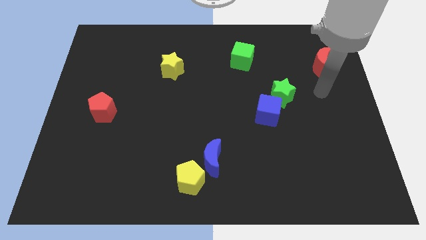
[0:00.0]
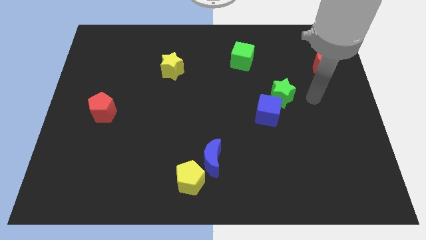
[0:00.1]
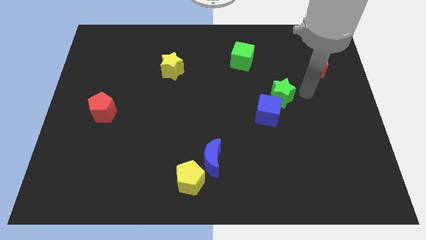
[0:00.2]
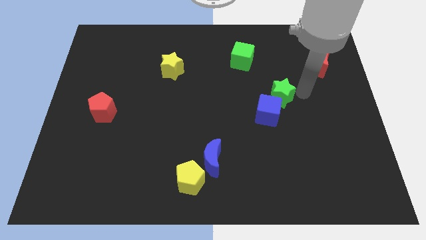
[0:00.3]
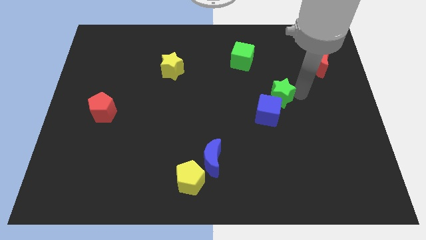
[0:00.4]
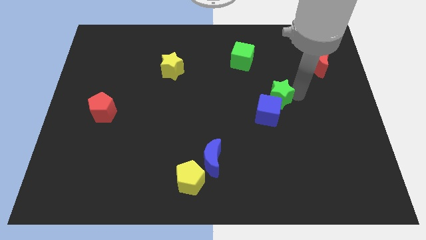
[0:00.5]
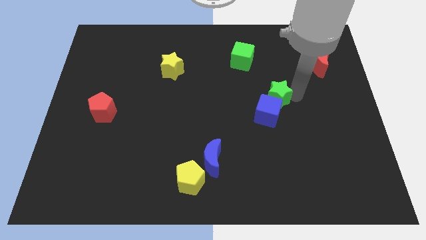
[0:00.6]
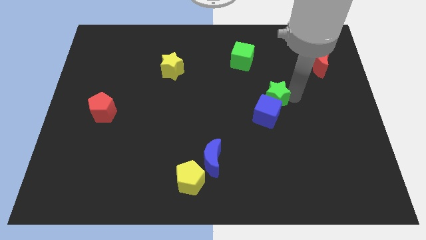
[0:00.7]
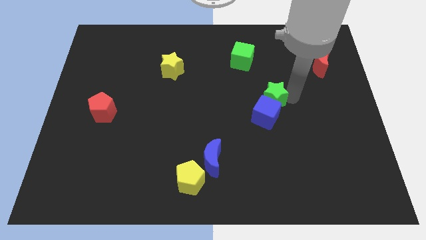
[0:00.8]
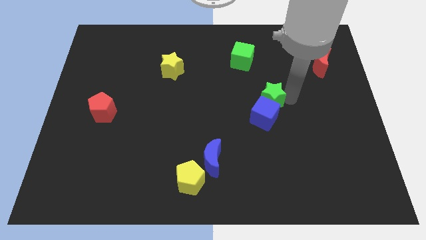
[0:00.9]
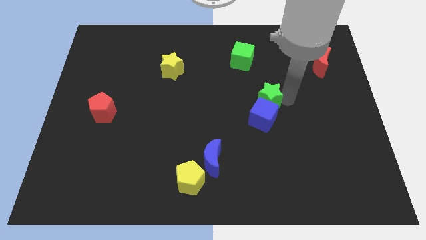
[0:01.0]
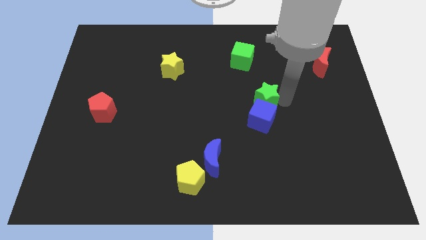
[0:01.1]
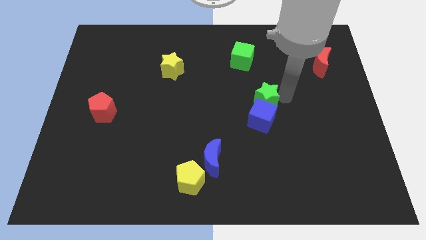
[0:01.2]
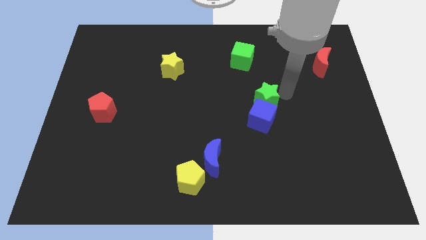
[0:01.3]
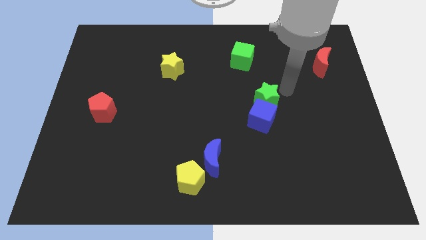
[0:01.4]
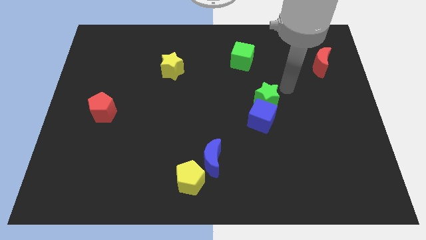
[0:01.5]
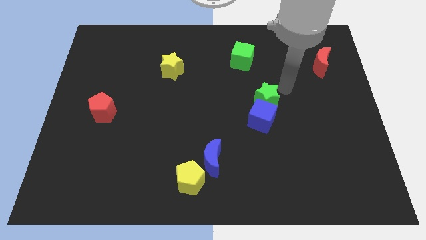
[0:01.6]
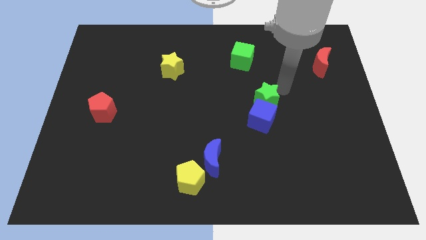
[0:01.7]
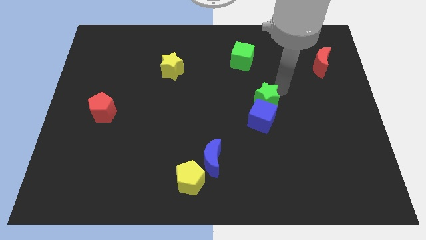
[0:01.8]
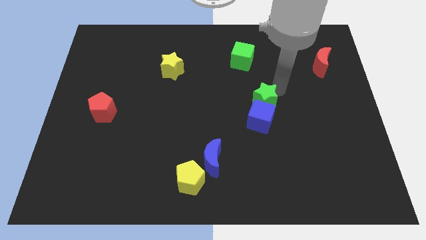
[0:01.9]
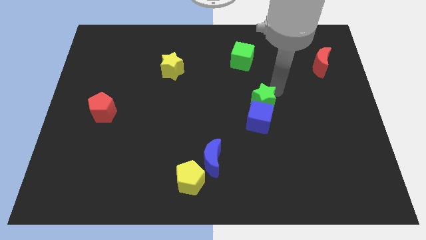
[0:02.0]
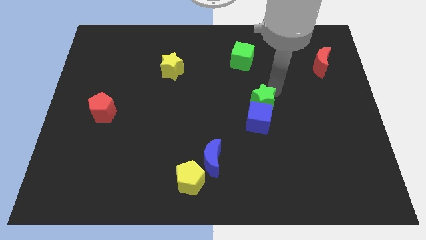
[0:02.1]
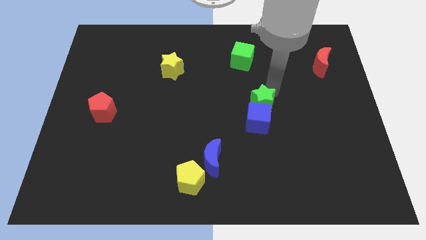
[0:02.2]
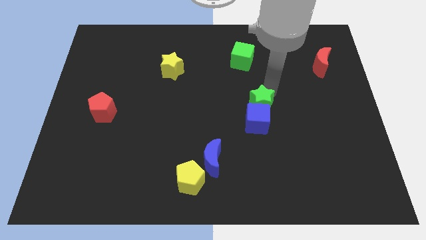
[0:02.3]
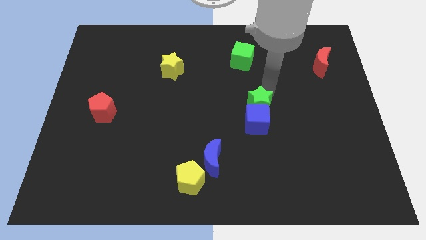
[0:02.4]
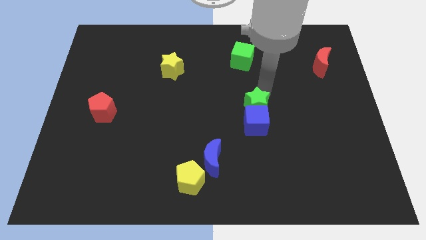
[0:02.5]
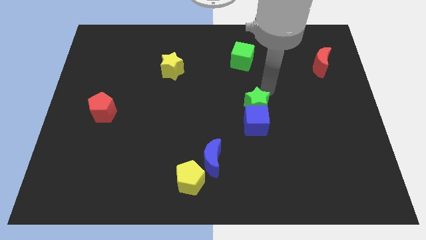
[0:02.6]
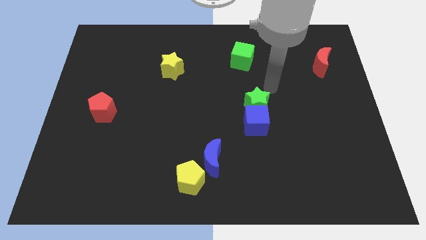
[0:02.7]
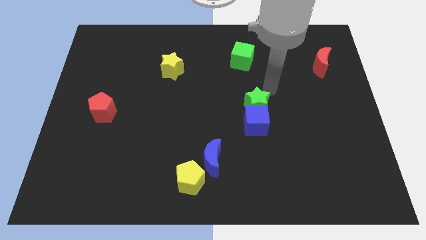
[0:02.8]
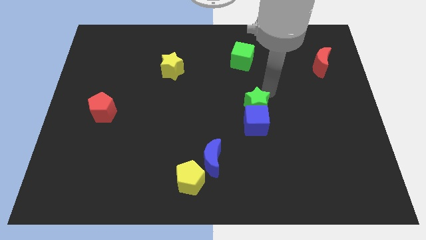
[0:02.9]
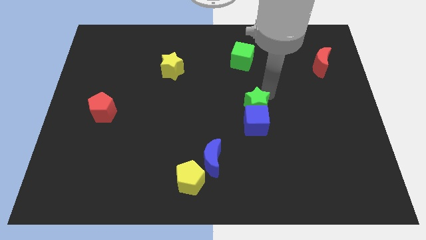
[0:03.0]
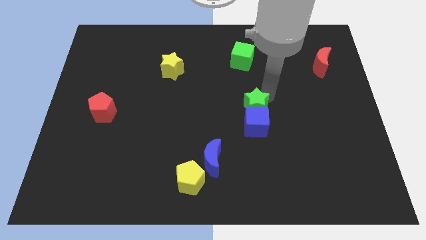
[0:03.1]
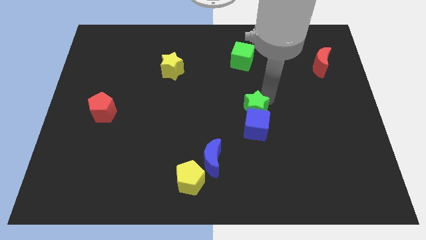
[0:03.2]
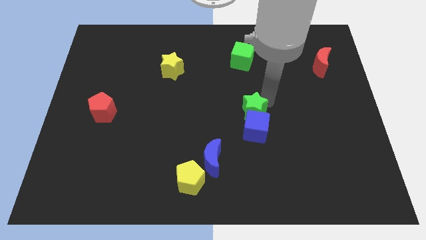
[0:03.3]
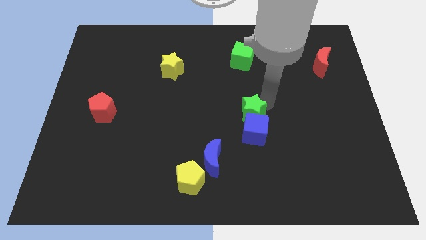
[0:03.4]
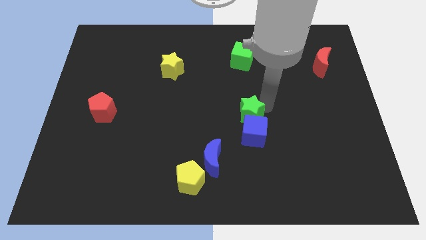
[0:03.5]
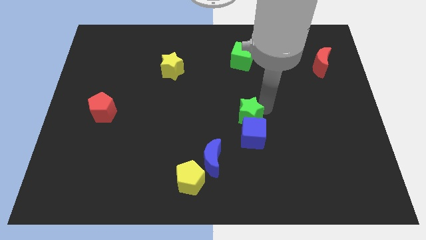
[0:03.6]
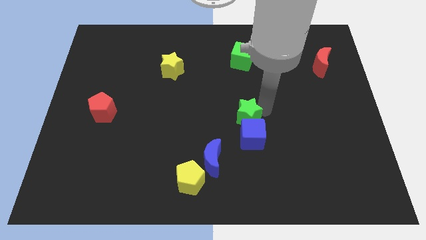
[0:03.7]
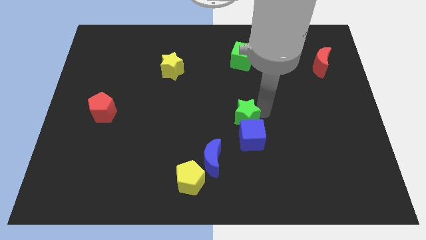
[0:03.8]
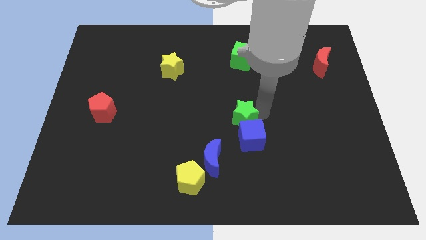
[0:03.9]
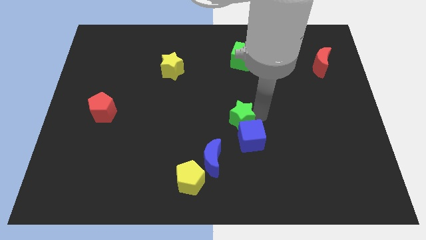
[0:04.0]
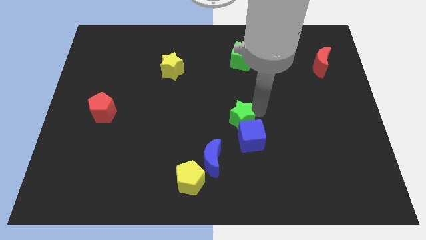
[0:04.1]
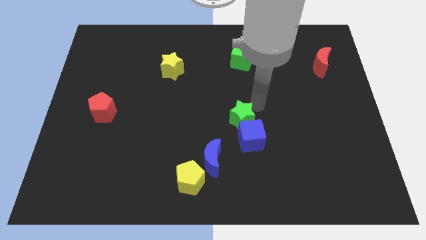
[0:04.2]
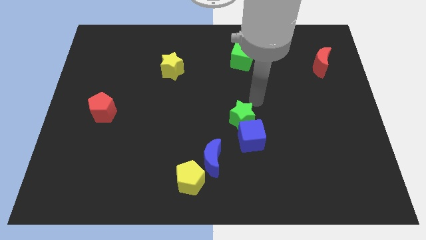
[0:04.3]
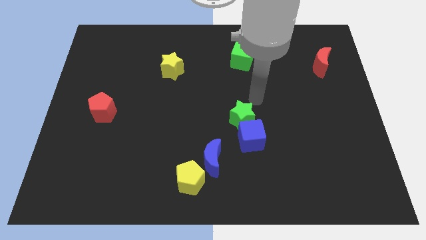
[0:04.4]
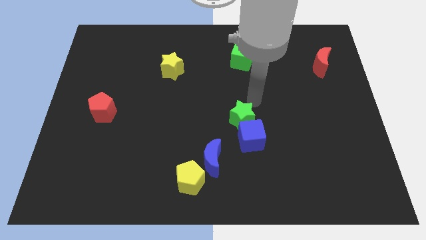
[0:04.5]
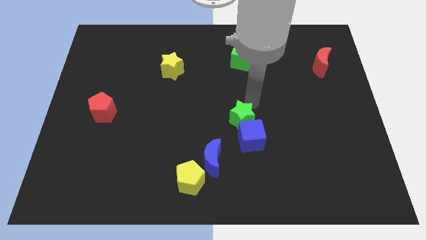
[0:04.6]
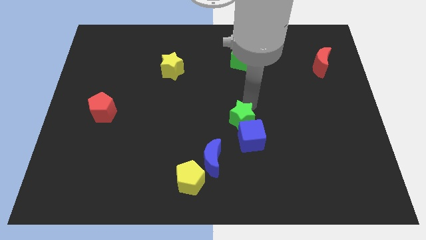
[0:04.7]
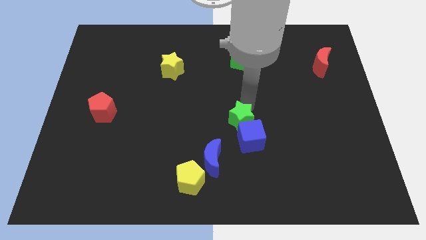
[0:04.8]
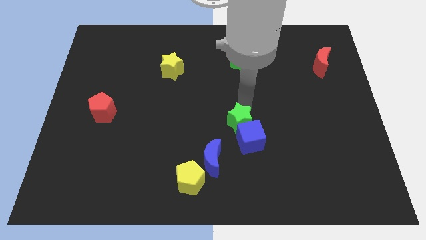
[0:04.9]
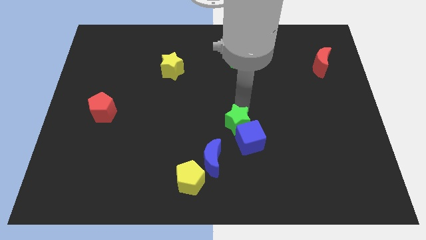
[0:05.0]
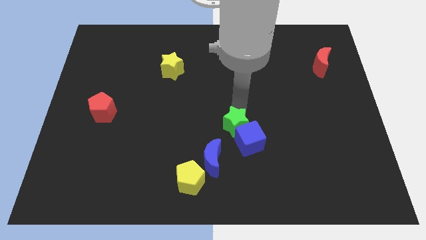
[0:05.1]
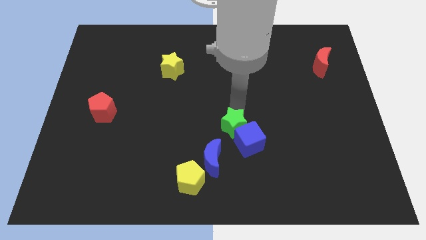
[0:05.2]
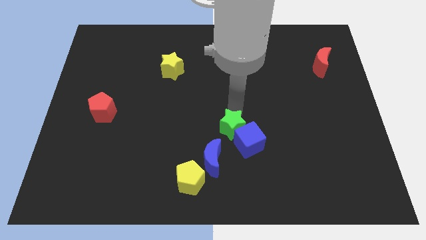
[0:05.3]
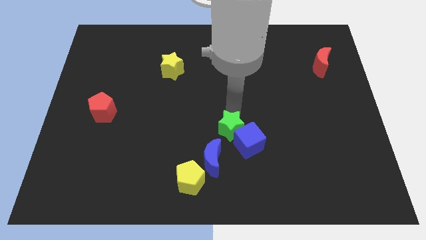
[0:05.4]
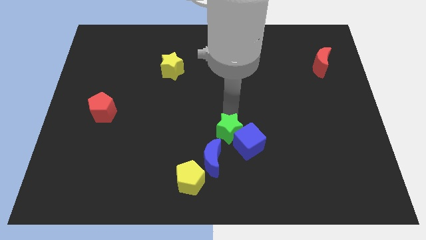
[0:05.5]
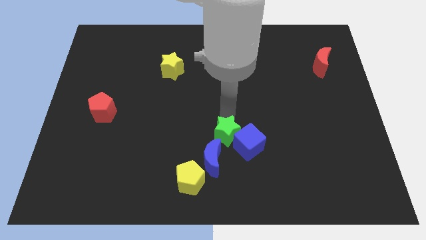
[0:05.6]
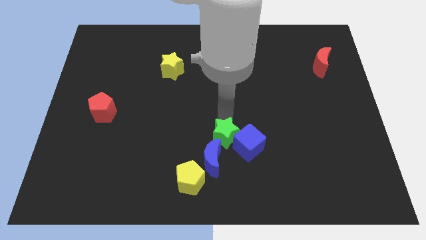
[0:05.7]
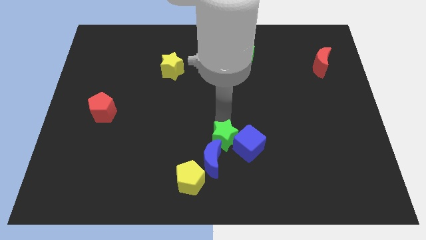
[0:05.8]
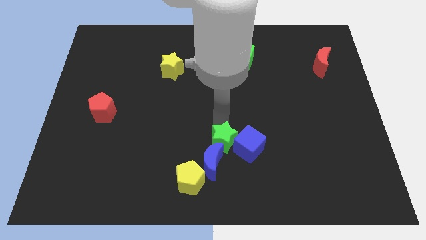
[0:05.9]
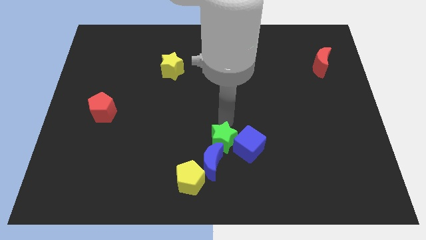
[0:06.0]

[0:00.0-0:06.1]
slide the green star towards the blue moon

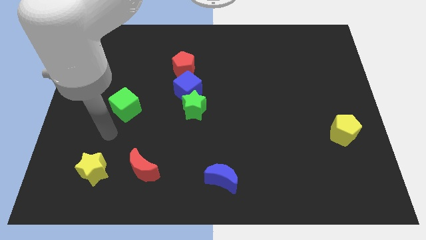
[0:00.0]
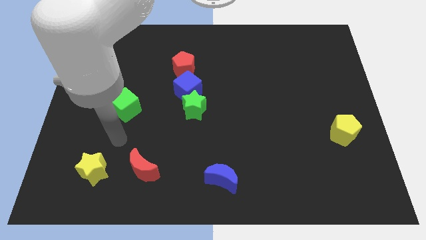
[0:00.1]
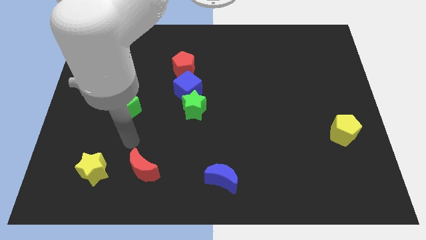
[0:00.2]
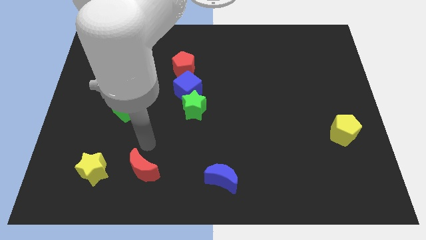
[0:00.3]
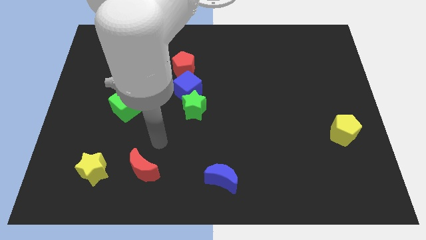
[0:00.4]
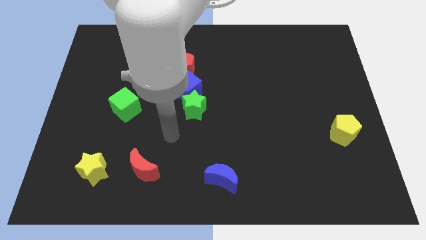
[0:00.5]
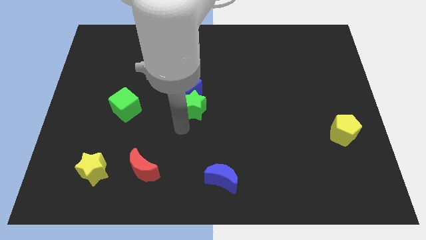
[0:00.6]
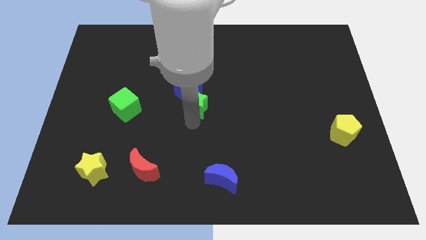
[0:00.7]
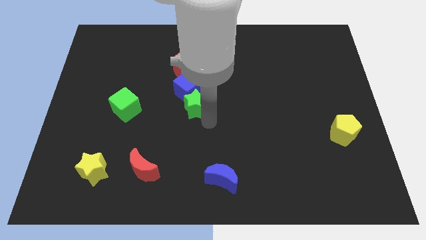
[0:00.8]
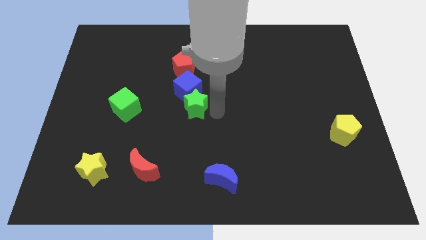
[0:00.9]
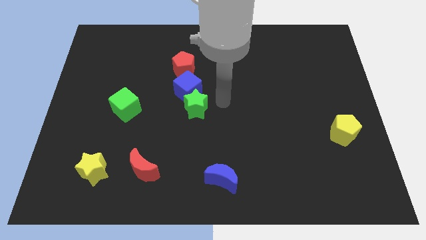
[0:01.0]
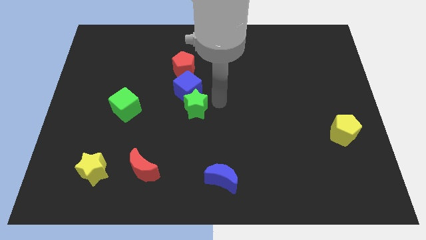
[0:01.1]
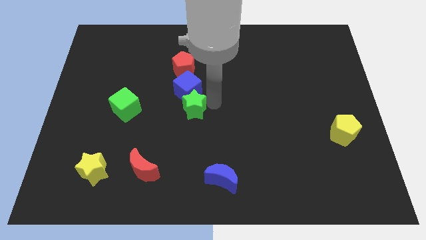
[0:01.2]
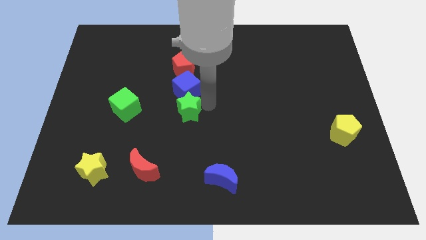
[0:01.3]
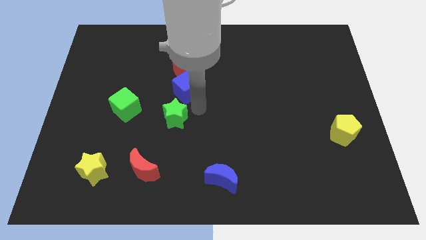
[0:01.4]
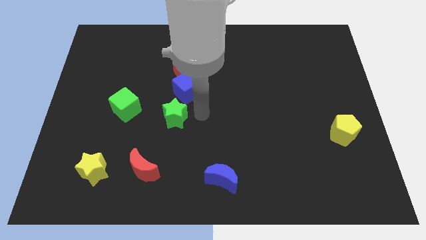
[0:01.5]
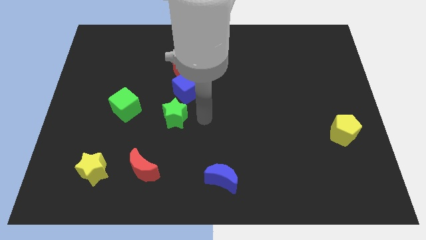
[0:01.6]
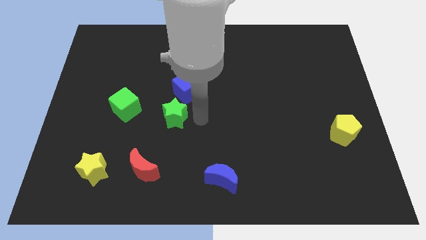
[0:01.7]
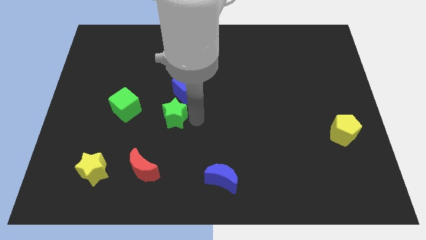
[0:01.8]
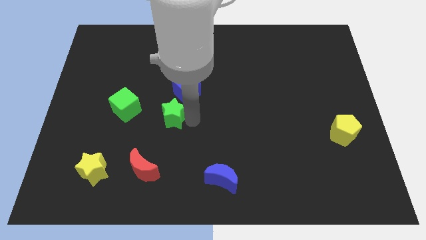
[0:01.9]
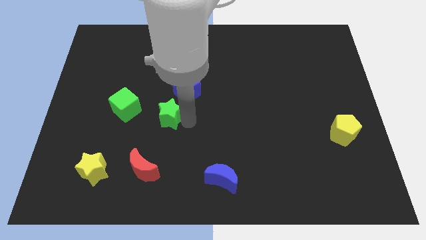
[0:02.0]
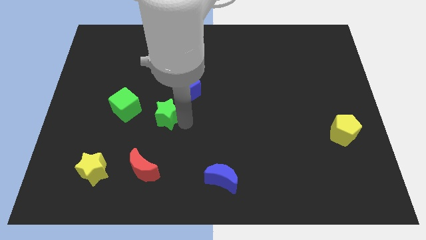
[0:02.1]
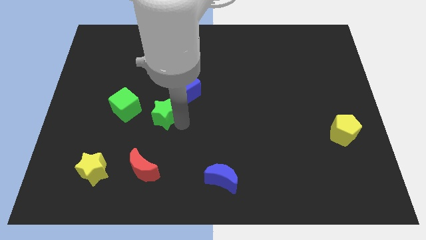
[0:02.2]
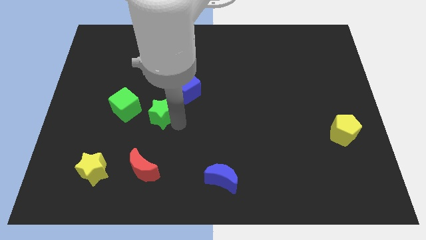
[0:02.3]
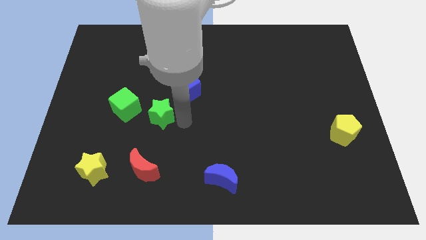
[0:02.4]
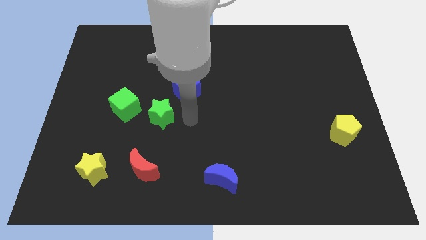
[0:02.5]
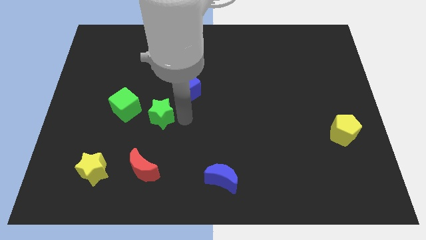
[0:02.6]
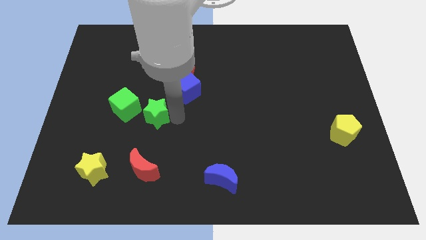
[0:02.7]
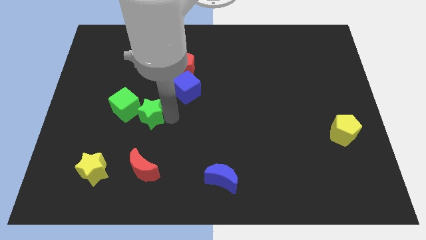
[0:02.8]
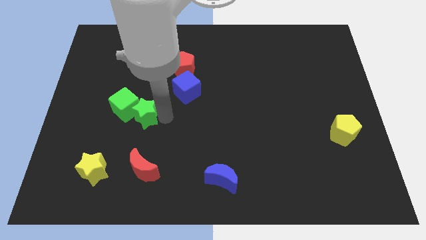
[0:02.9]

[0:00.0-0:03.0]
slide the green star next to the green cube
